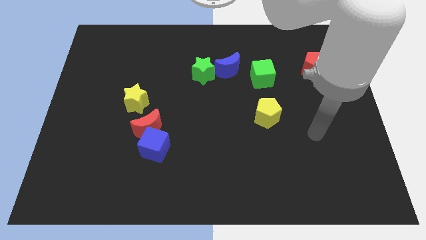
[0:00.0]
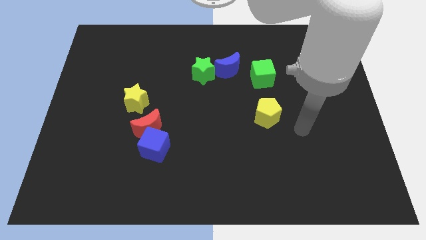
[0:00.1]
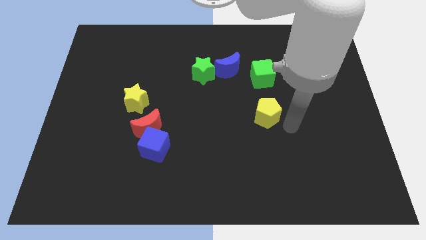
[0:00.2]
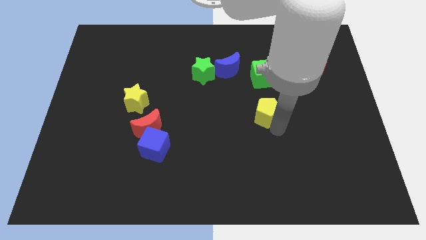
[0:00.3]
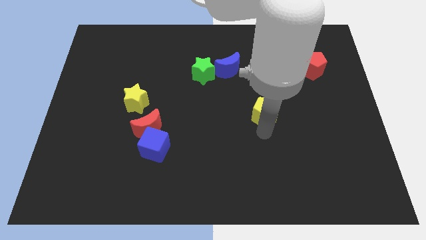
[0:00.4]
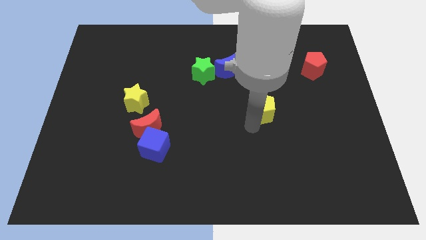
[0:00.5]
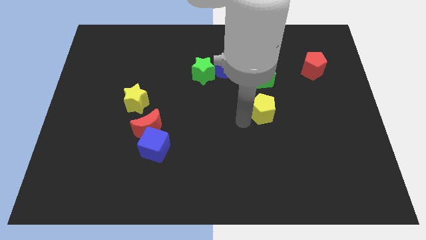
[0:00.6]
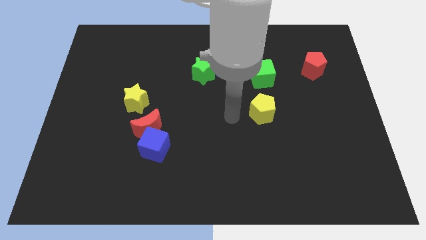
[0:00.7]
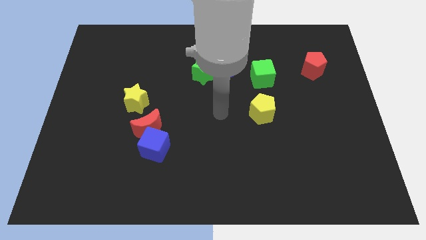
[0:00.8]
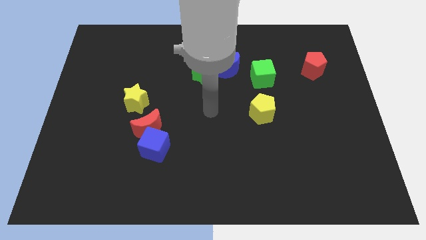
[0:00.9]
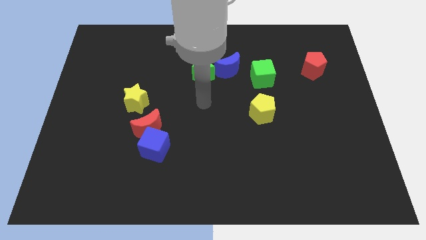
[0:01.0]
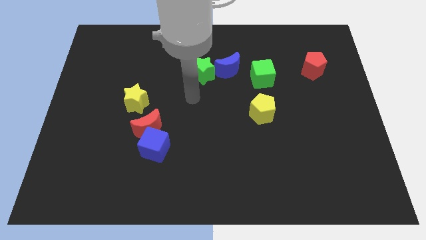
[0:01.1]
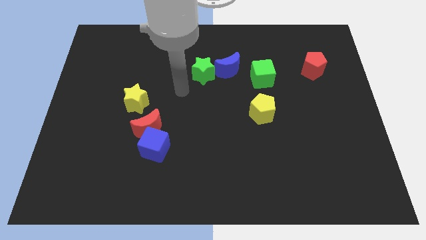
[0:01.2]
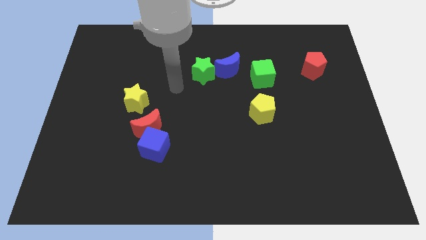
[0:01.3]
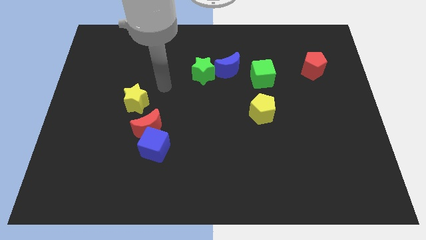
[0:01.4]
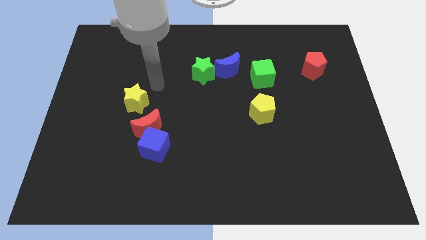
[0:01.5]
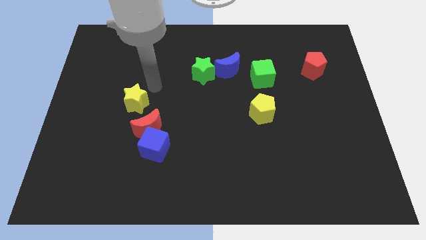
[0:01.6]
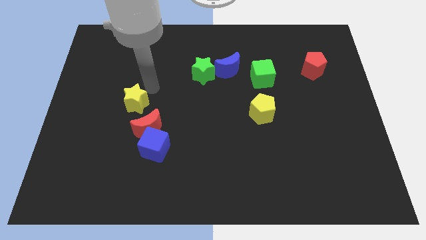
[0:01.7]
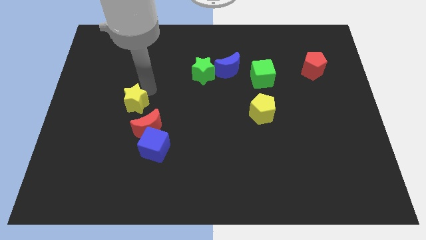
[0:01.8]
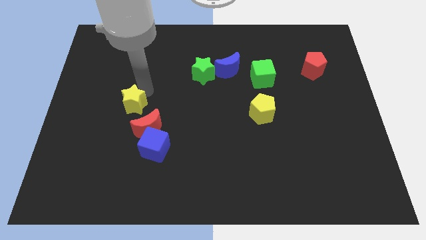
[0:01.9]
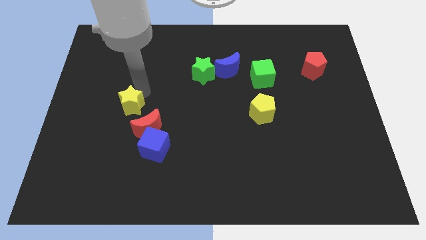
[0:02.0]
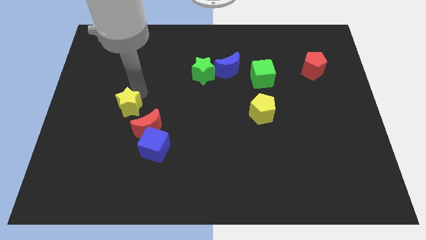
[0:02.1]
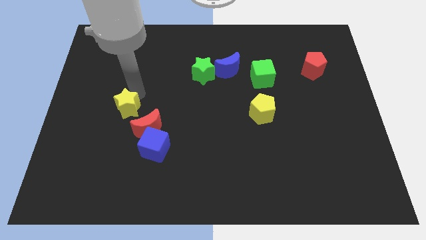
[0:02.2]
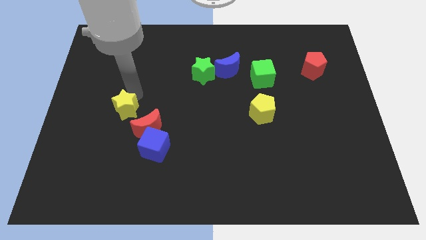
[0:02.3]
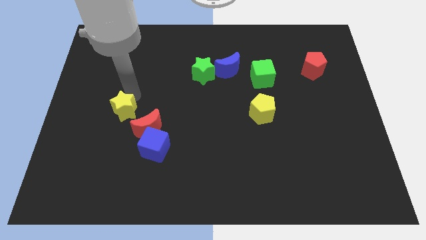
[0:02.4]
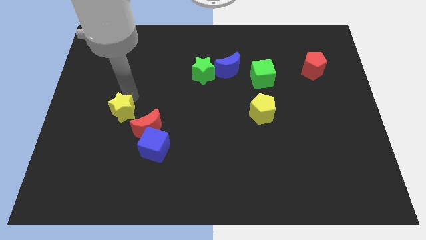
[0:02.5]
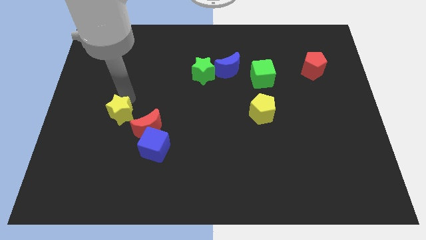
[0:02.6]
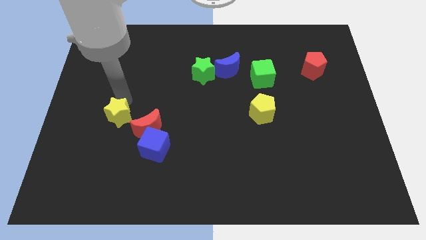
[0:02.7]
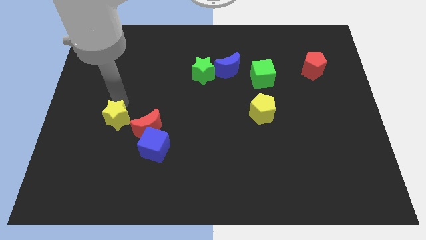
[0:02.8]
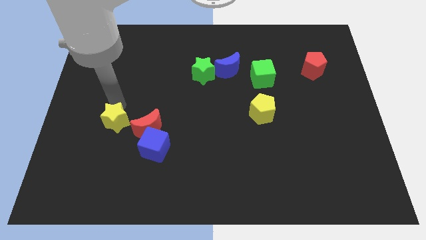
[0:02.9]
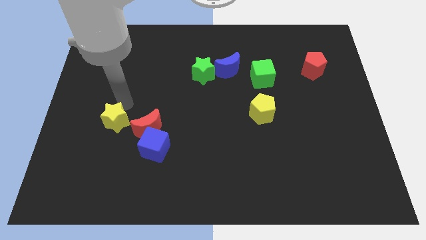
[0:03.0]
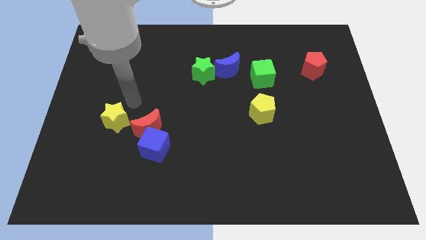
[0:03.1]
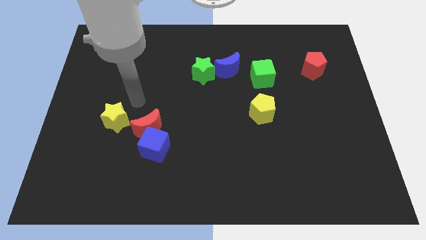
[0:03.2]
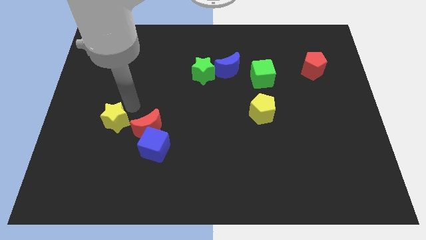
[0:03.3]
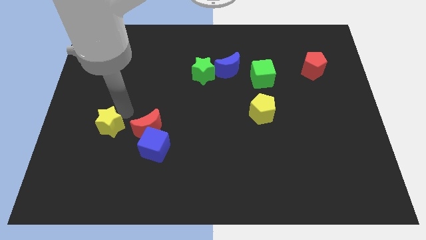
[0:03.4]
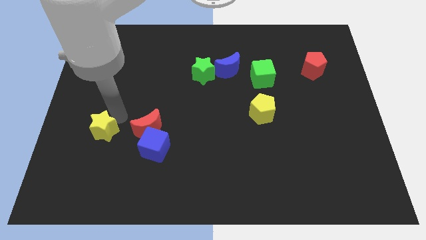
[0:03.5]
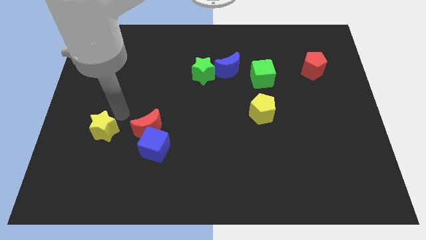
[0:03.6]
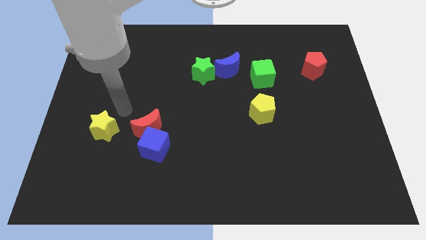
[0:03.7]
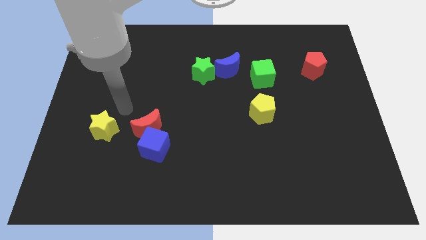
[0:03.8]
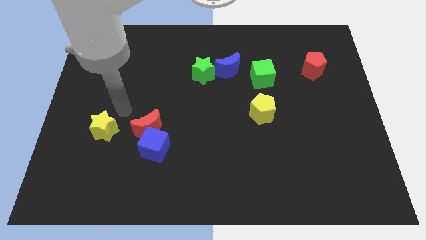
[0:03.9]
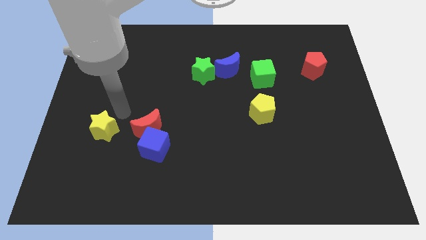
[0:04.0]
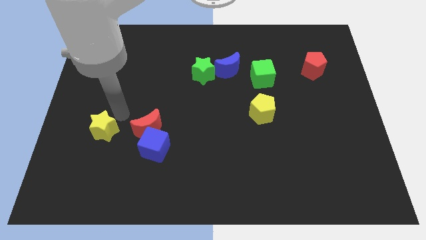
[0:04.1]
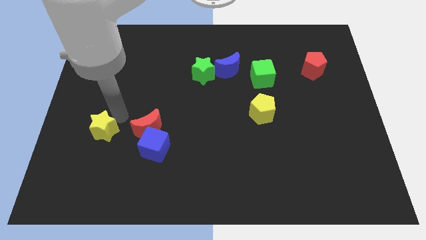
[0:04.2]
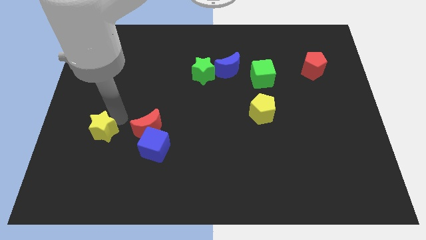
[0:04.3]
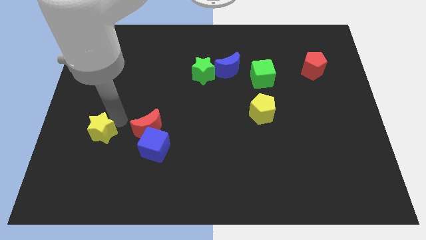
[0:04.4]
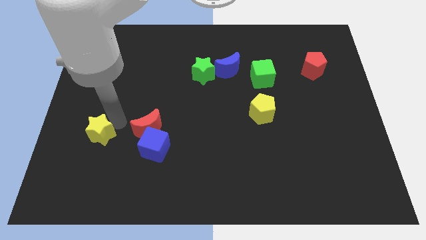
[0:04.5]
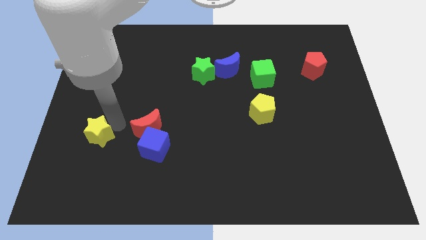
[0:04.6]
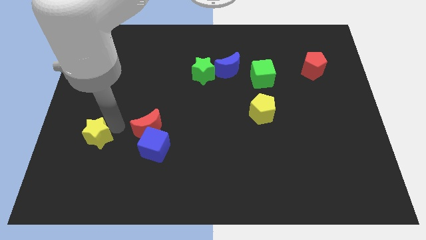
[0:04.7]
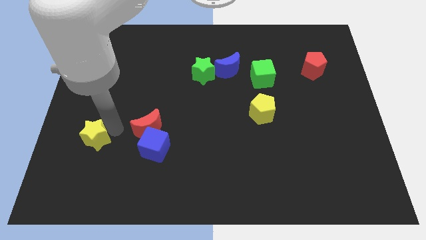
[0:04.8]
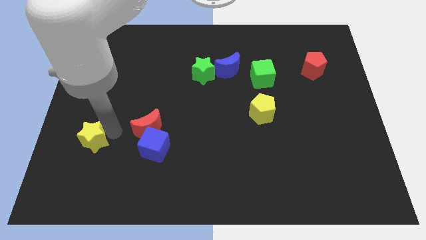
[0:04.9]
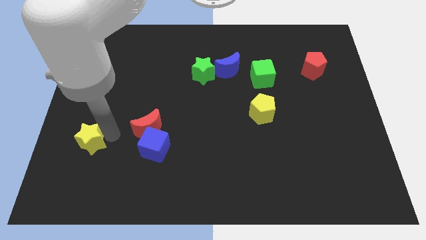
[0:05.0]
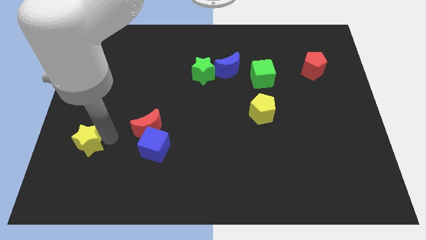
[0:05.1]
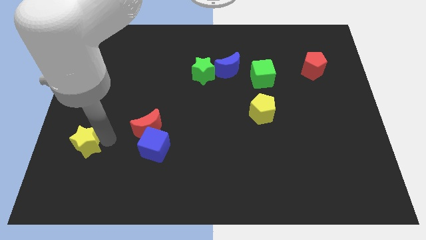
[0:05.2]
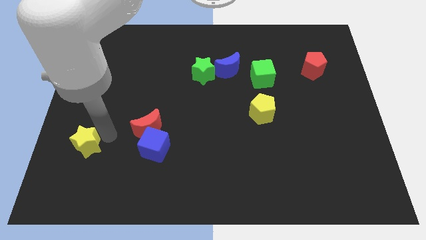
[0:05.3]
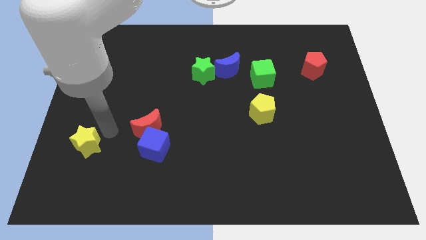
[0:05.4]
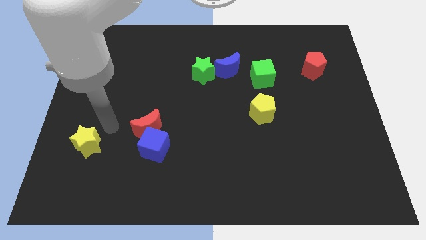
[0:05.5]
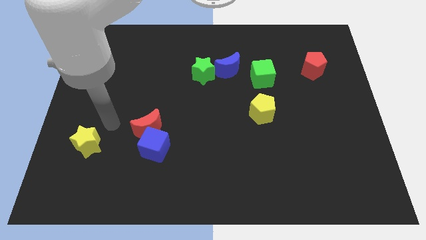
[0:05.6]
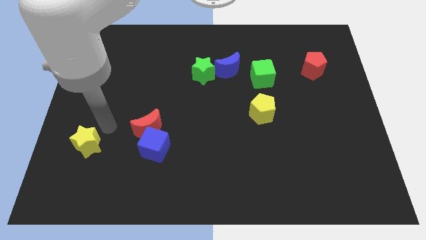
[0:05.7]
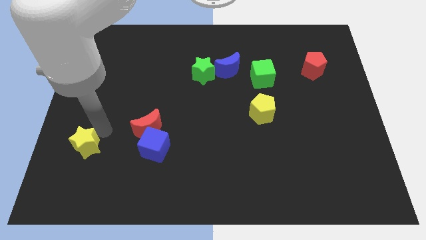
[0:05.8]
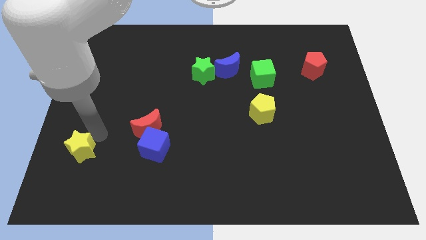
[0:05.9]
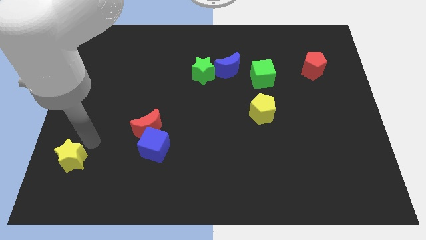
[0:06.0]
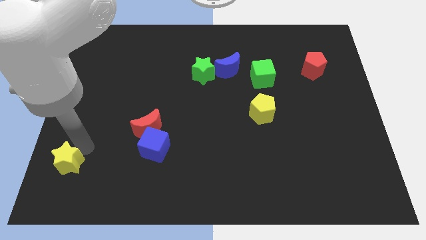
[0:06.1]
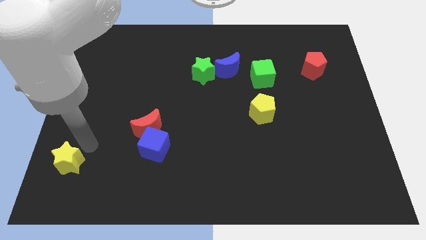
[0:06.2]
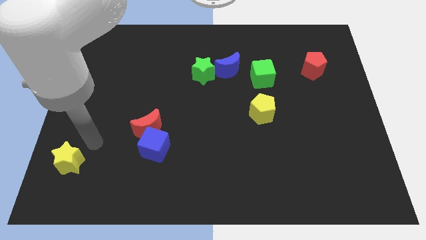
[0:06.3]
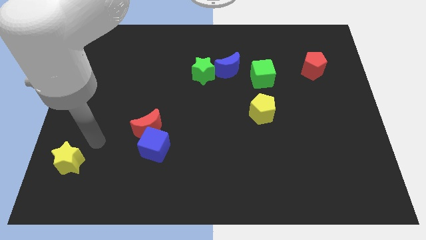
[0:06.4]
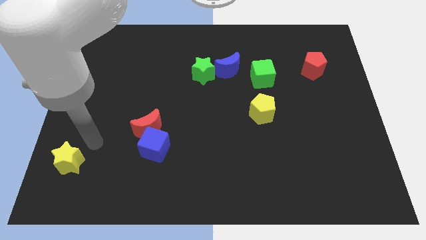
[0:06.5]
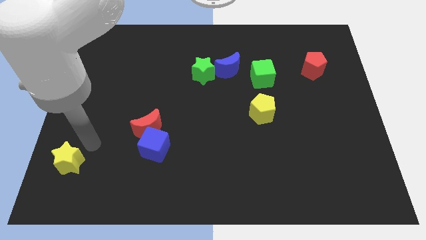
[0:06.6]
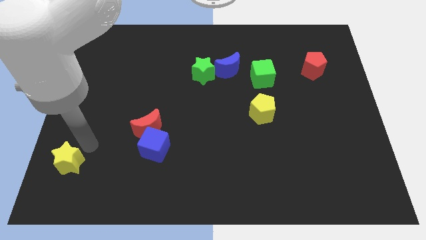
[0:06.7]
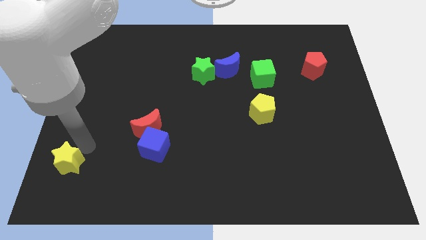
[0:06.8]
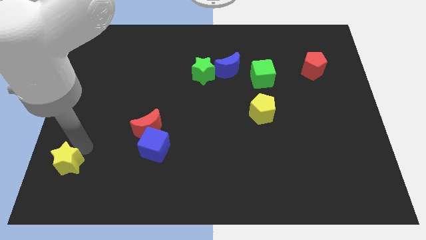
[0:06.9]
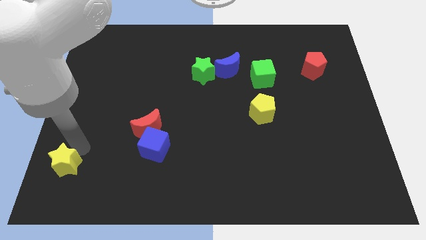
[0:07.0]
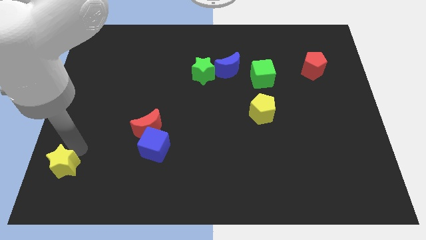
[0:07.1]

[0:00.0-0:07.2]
push the yellow star to the bottom left of the board
